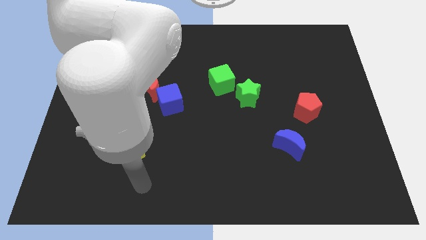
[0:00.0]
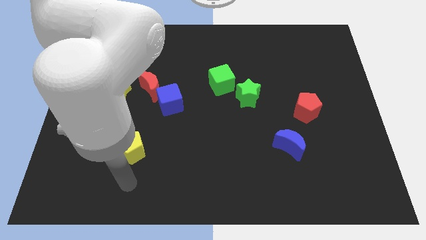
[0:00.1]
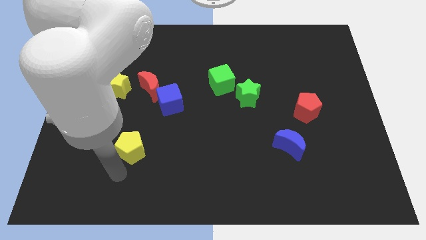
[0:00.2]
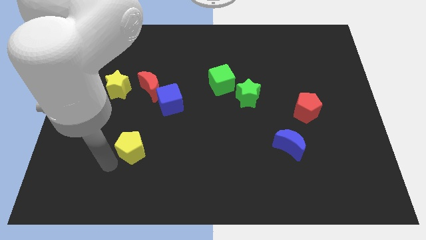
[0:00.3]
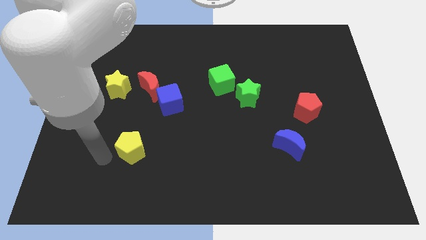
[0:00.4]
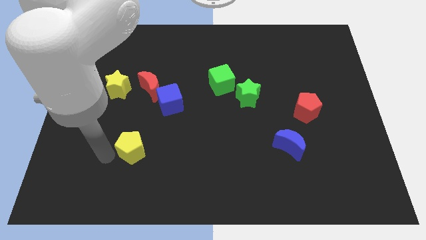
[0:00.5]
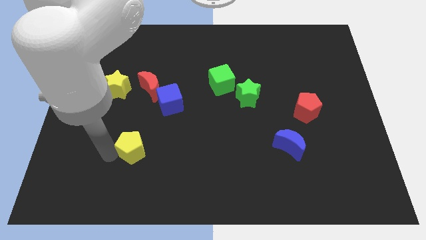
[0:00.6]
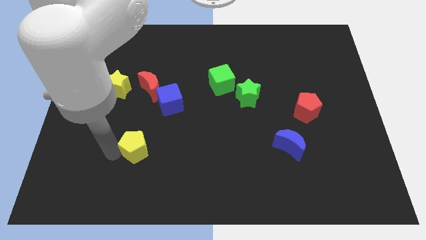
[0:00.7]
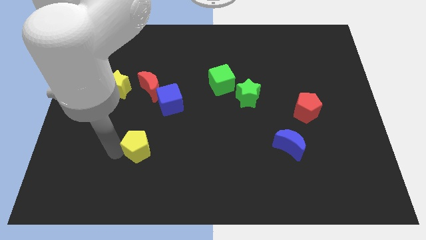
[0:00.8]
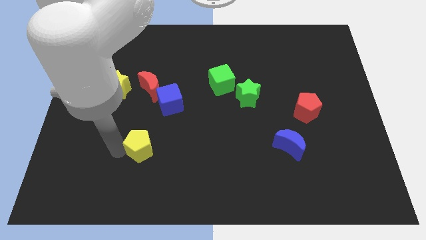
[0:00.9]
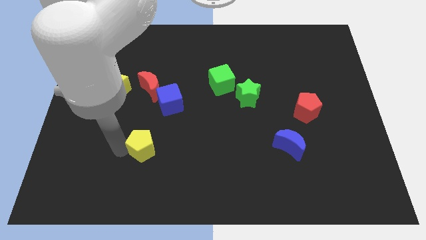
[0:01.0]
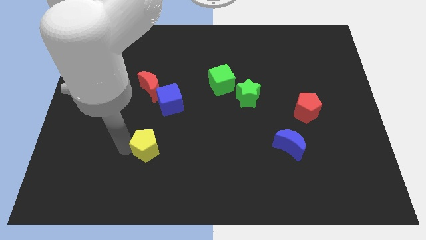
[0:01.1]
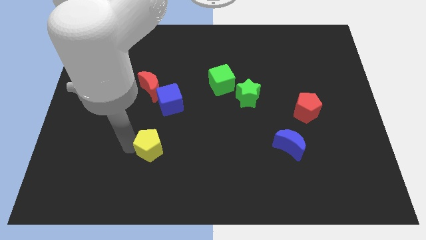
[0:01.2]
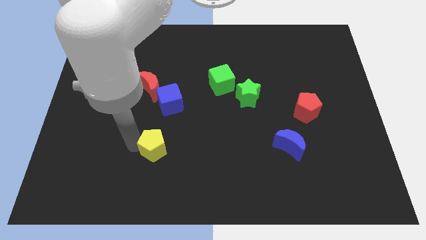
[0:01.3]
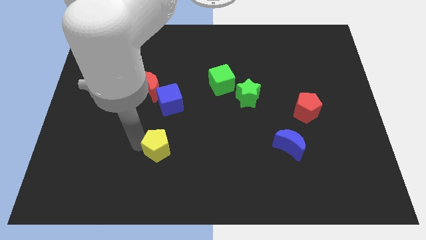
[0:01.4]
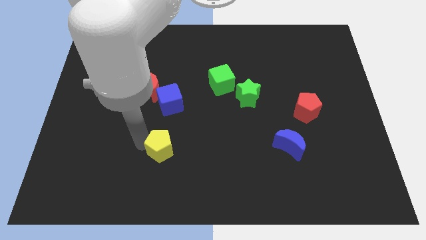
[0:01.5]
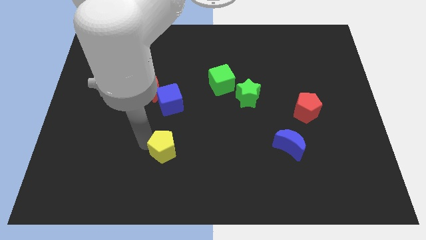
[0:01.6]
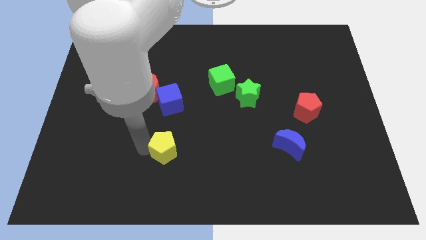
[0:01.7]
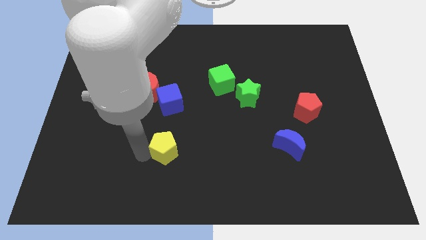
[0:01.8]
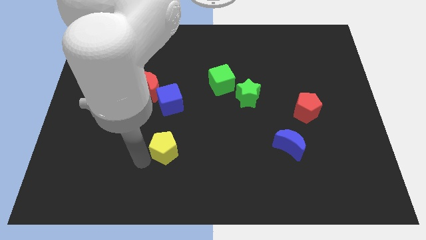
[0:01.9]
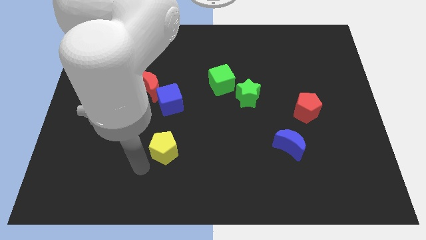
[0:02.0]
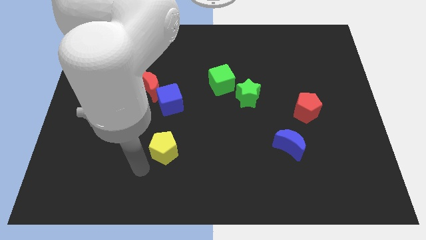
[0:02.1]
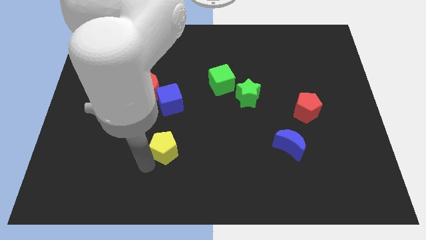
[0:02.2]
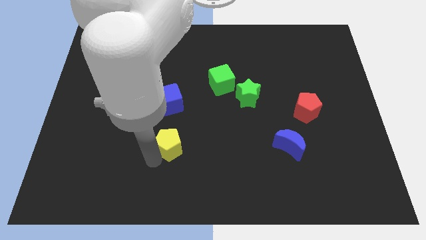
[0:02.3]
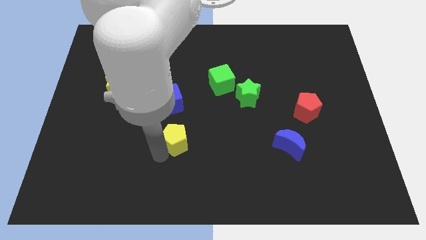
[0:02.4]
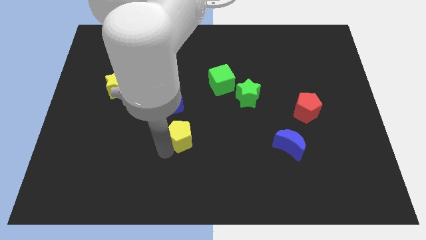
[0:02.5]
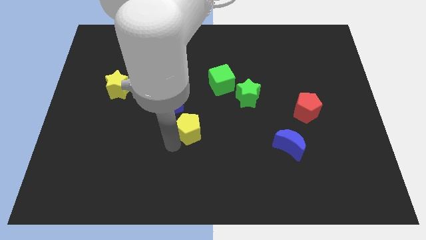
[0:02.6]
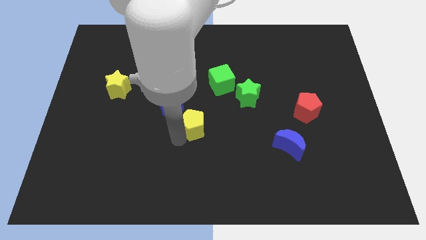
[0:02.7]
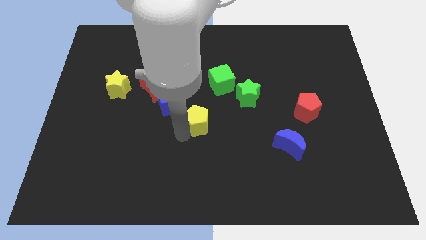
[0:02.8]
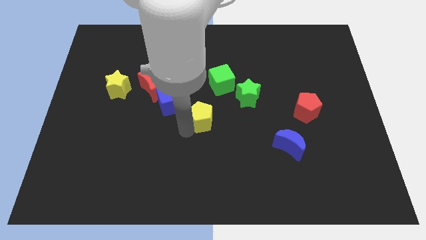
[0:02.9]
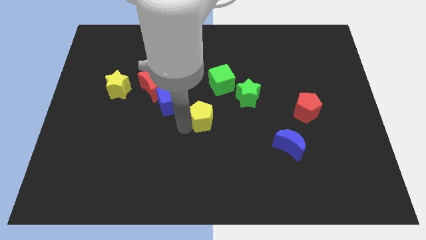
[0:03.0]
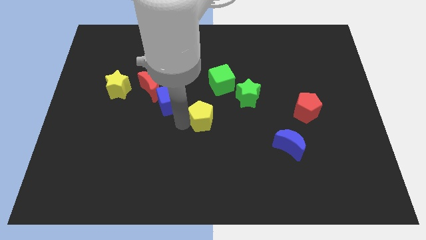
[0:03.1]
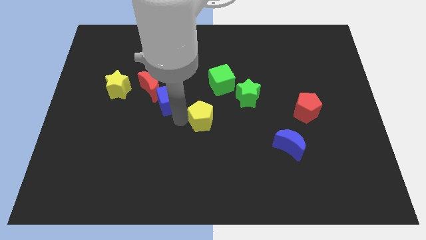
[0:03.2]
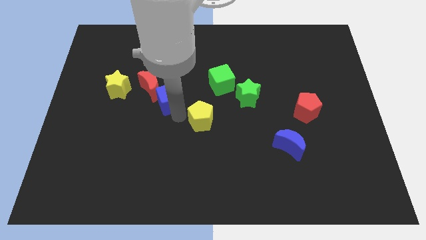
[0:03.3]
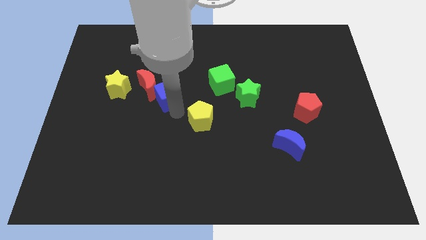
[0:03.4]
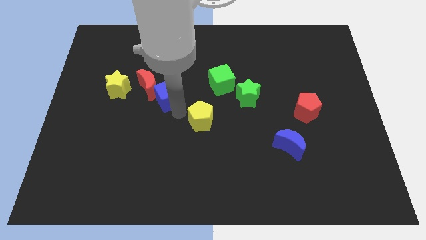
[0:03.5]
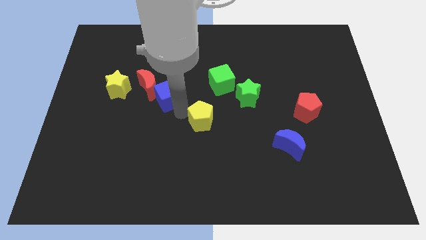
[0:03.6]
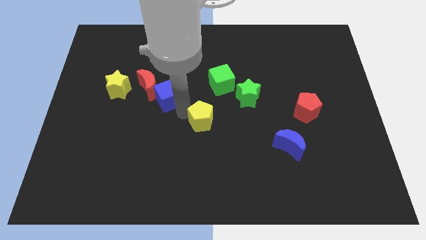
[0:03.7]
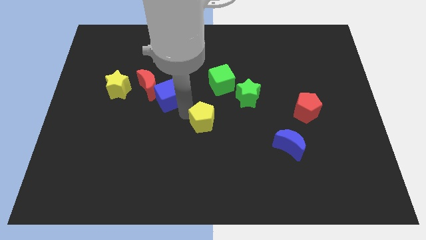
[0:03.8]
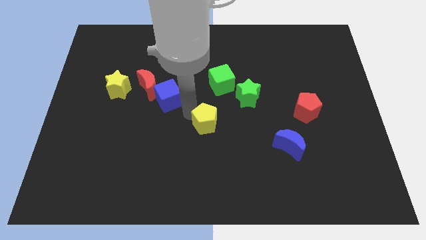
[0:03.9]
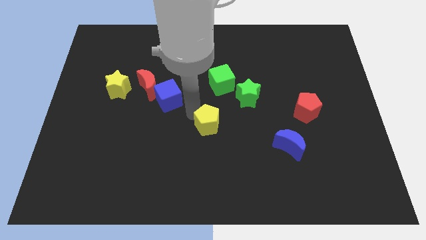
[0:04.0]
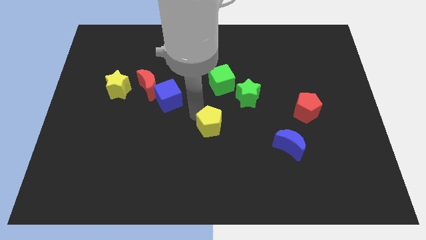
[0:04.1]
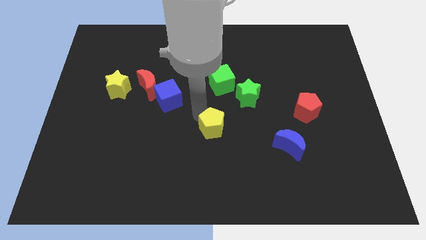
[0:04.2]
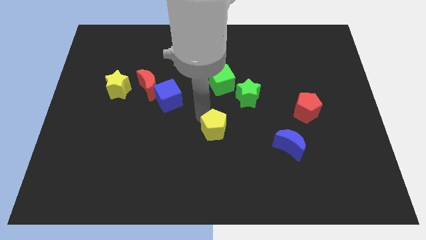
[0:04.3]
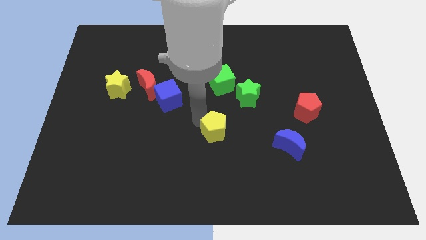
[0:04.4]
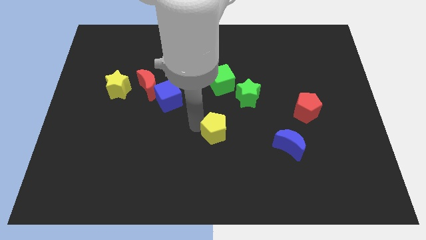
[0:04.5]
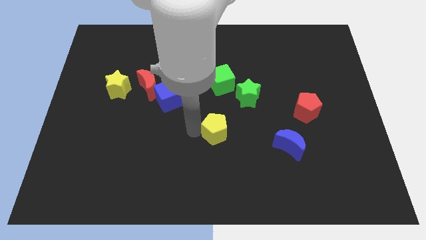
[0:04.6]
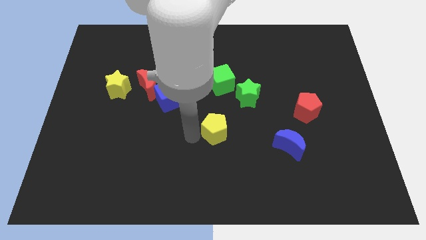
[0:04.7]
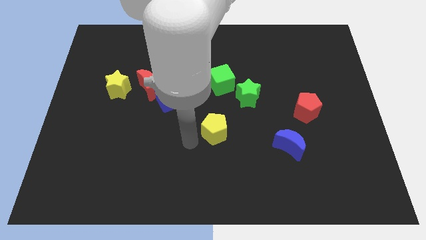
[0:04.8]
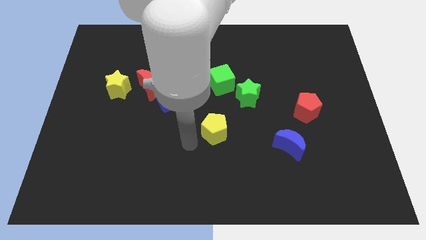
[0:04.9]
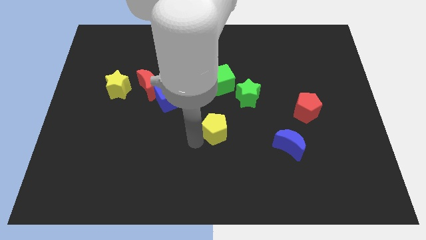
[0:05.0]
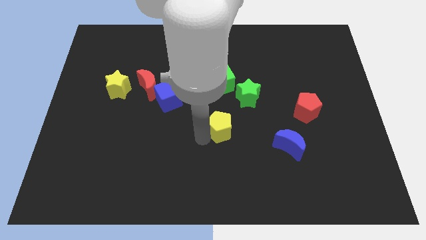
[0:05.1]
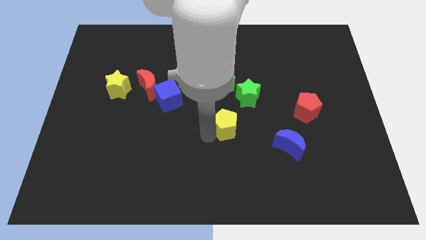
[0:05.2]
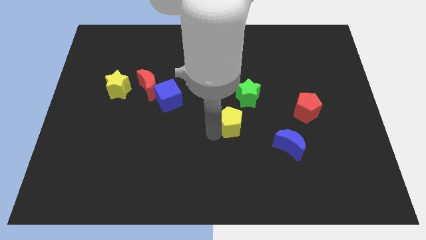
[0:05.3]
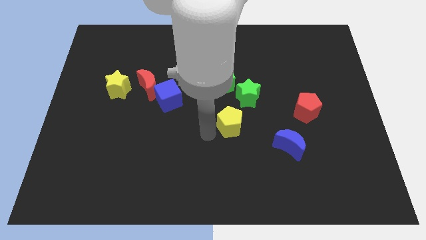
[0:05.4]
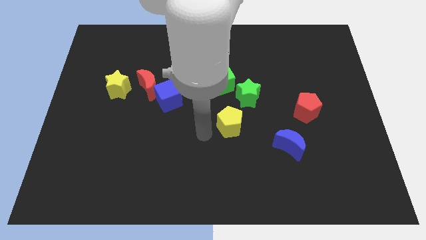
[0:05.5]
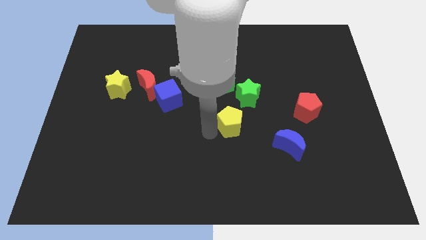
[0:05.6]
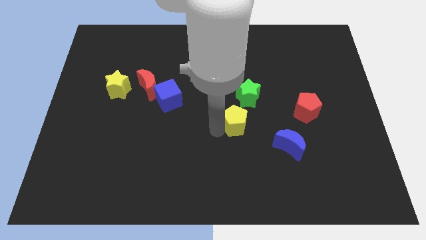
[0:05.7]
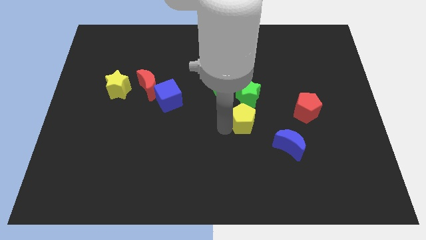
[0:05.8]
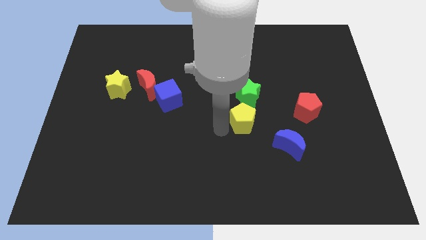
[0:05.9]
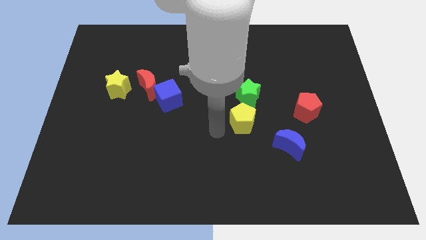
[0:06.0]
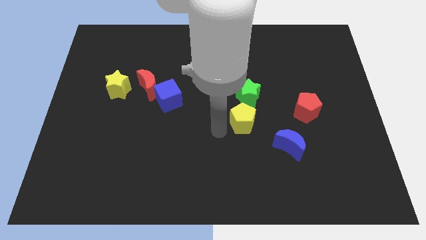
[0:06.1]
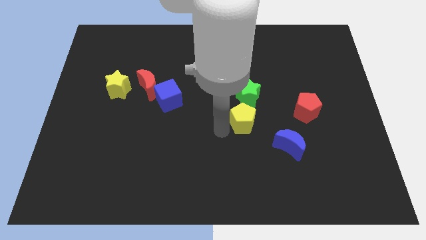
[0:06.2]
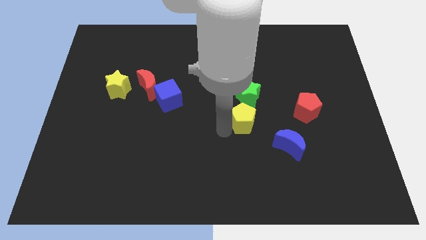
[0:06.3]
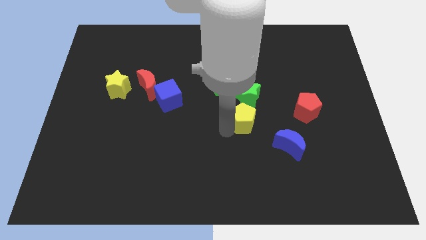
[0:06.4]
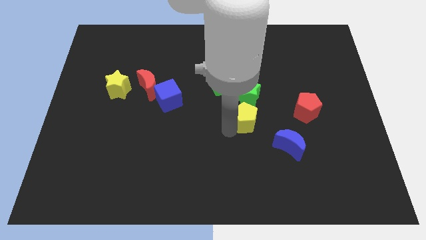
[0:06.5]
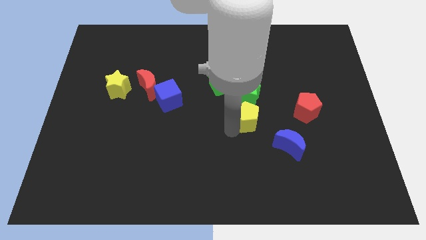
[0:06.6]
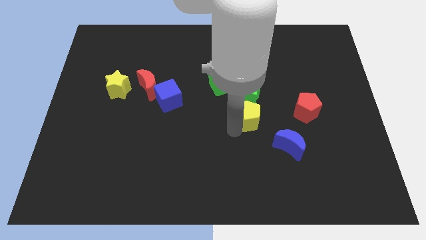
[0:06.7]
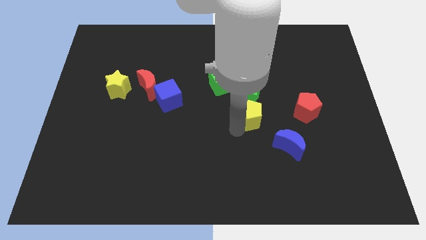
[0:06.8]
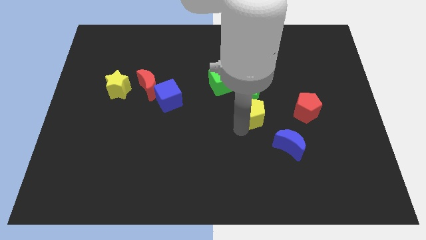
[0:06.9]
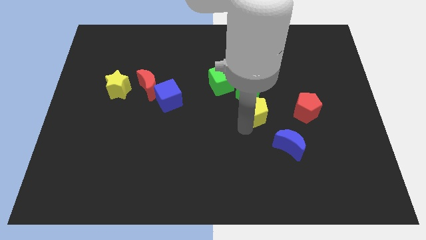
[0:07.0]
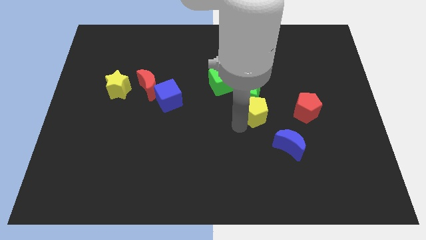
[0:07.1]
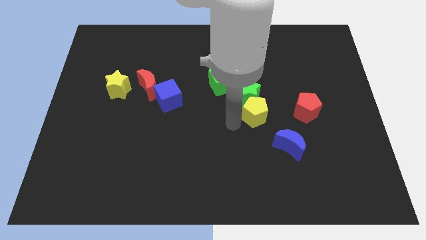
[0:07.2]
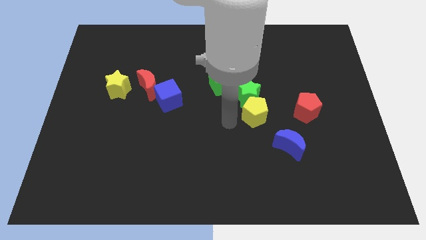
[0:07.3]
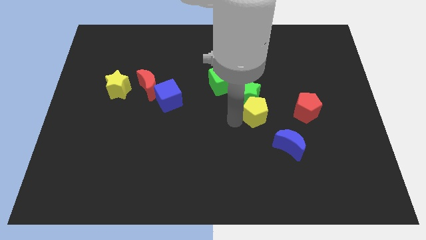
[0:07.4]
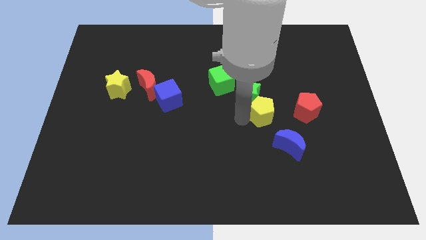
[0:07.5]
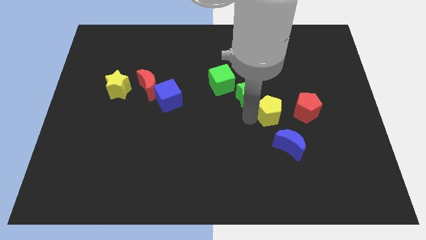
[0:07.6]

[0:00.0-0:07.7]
push the yellow pentagon to the top side of the blue moon

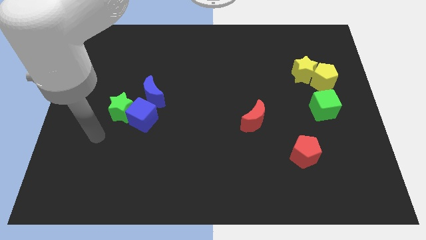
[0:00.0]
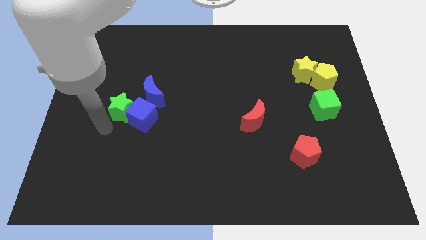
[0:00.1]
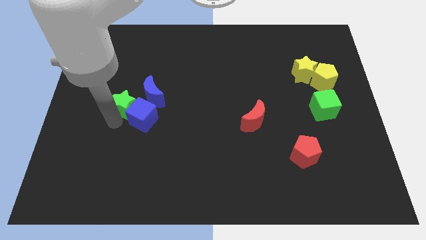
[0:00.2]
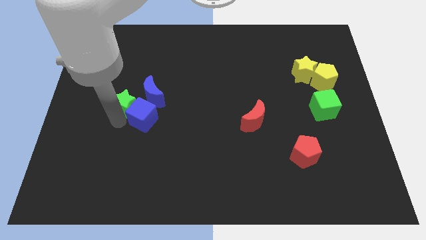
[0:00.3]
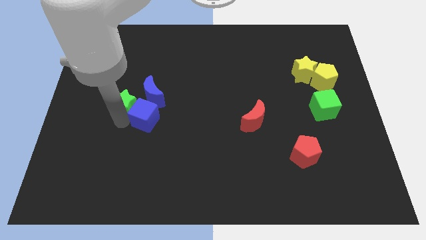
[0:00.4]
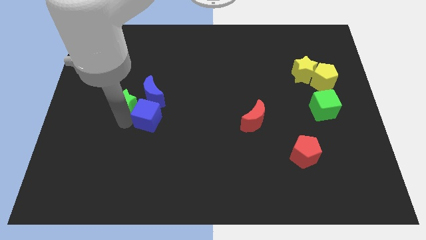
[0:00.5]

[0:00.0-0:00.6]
put the blue cube to the bottom right of the blue moon
